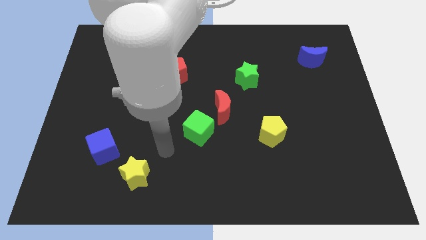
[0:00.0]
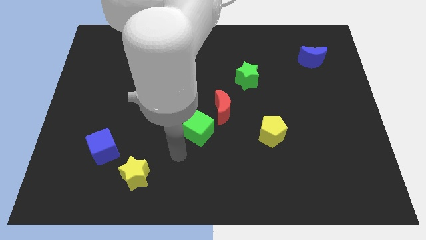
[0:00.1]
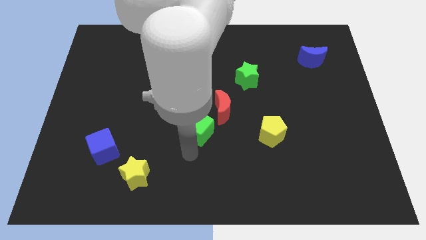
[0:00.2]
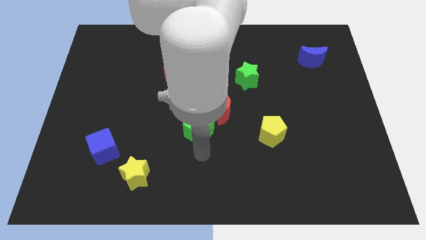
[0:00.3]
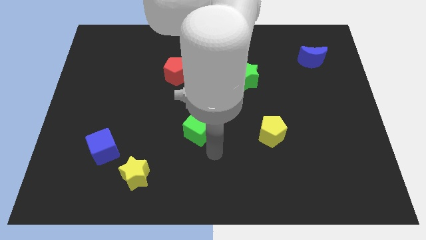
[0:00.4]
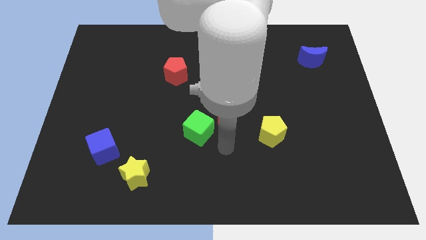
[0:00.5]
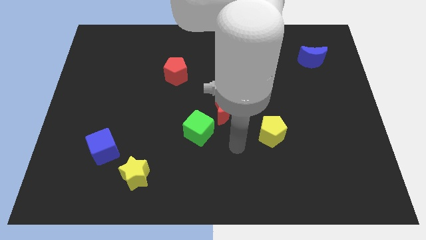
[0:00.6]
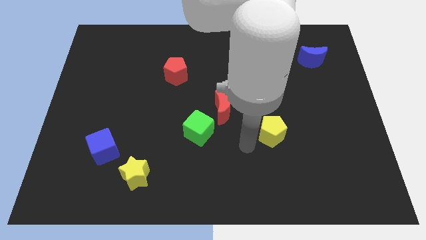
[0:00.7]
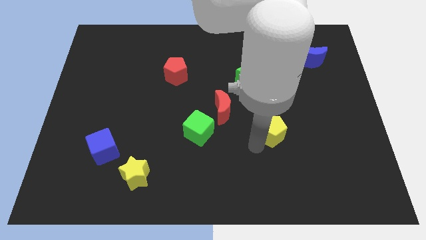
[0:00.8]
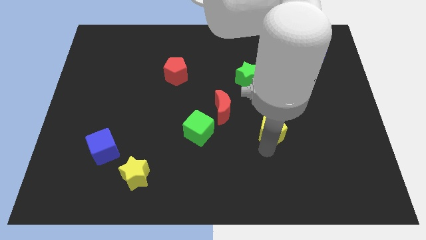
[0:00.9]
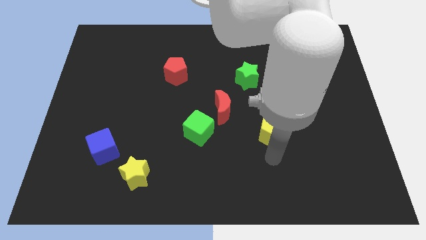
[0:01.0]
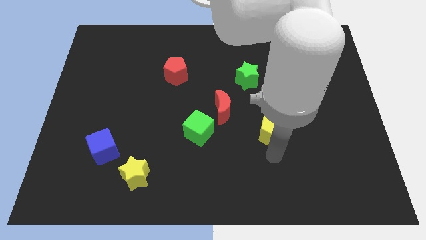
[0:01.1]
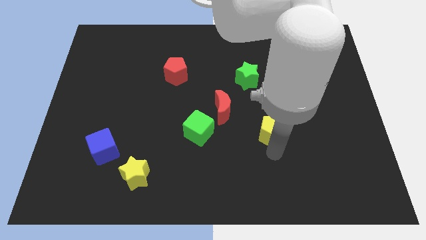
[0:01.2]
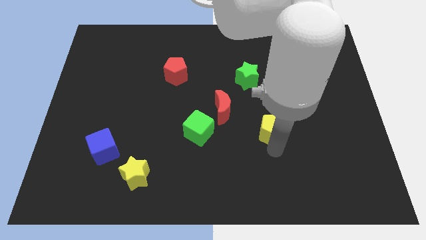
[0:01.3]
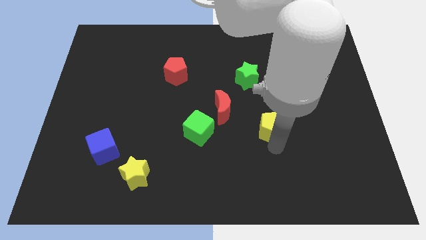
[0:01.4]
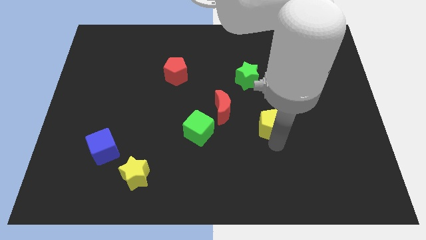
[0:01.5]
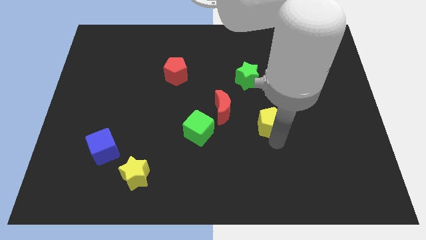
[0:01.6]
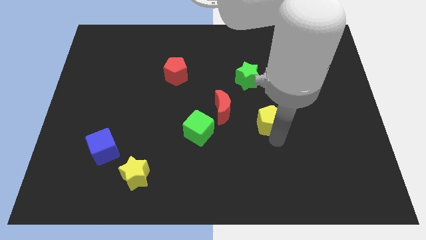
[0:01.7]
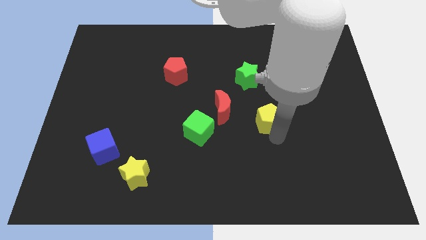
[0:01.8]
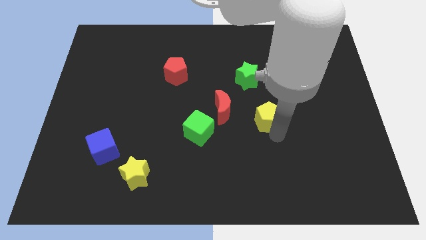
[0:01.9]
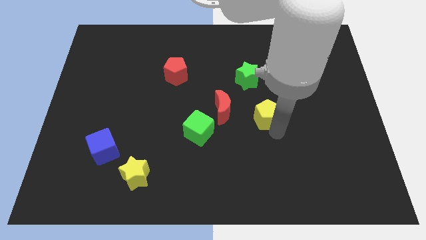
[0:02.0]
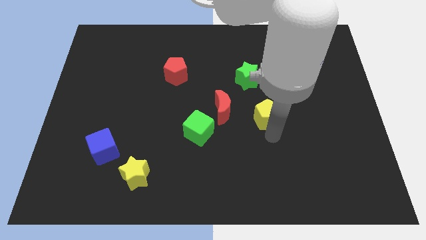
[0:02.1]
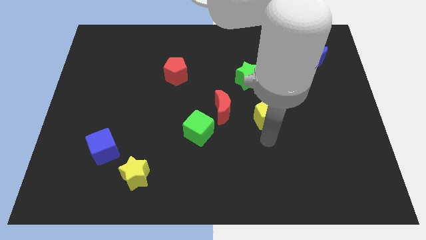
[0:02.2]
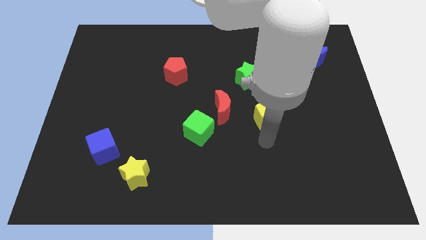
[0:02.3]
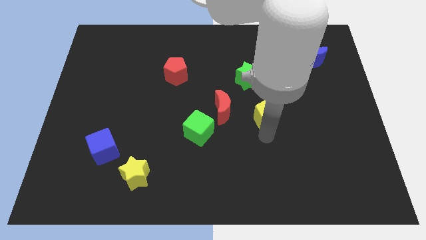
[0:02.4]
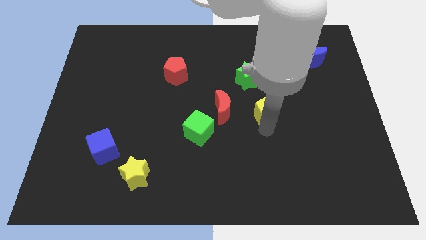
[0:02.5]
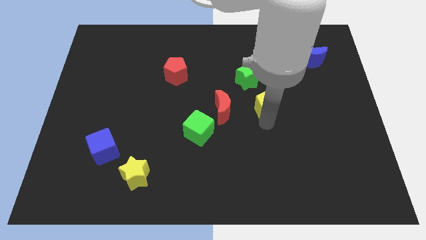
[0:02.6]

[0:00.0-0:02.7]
slightly slide the yellow pentagon upwards

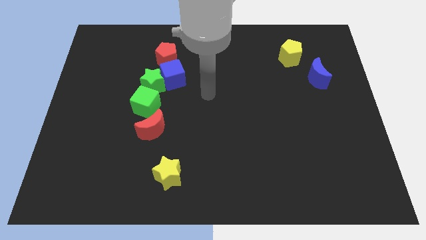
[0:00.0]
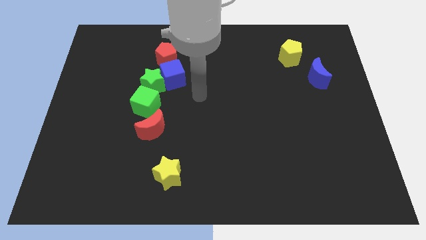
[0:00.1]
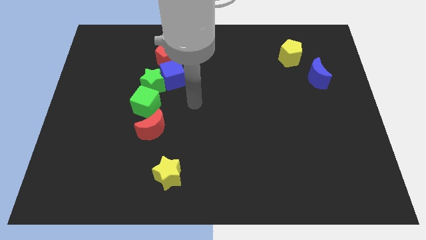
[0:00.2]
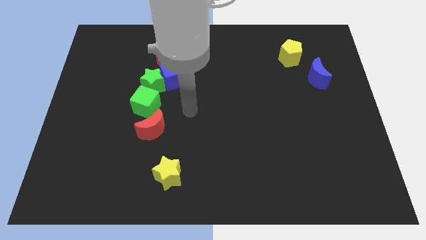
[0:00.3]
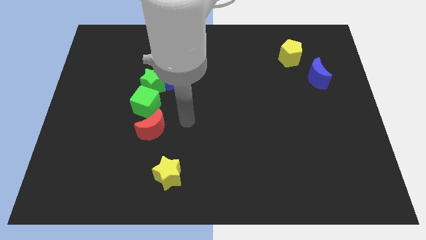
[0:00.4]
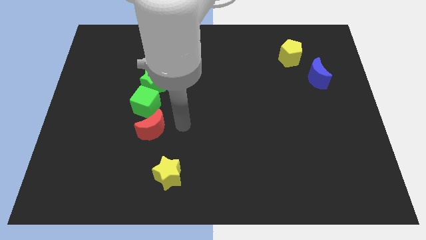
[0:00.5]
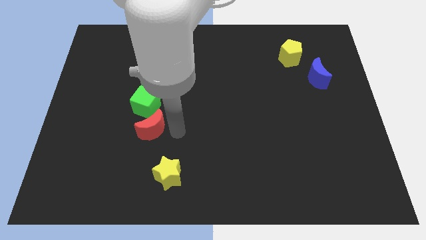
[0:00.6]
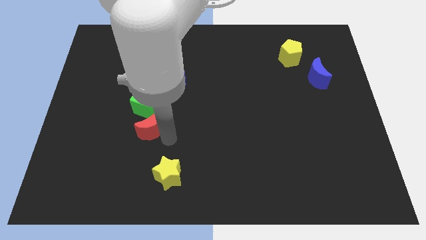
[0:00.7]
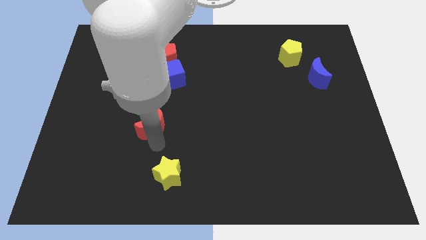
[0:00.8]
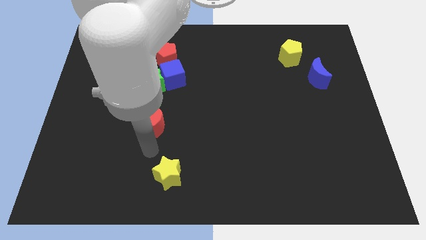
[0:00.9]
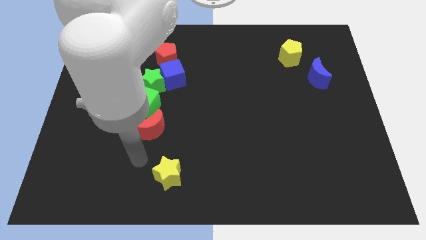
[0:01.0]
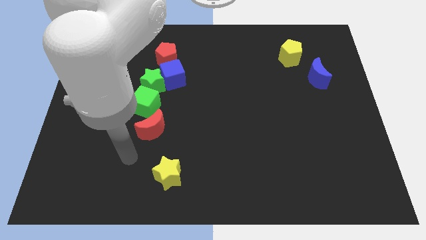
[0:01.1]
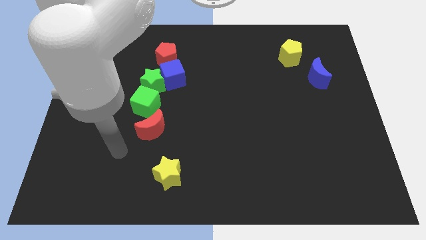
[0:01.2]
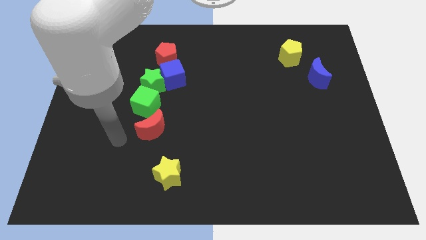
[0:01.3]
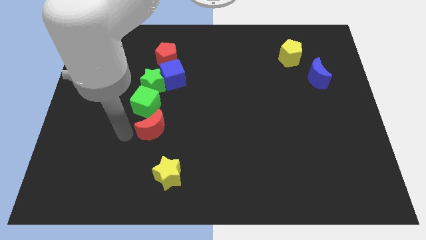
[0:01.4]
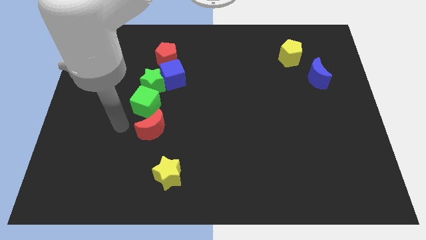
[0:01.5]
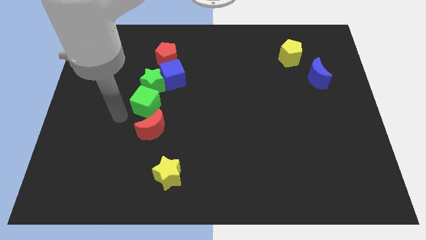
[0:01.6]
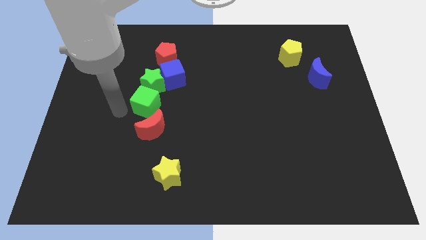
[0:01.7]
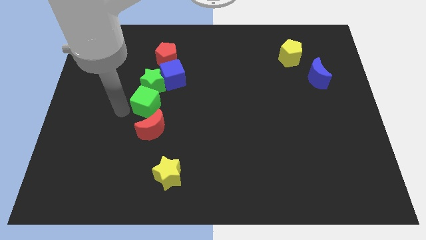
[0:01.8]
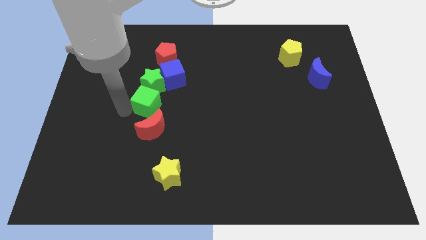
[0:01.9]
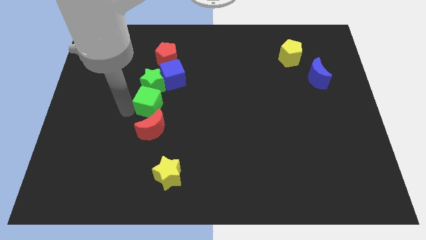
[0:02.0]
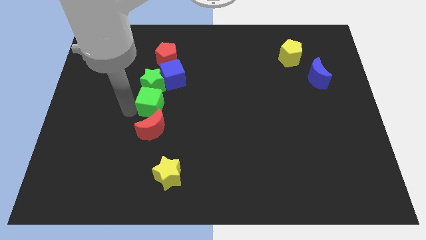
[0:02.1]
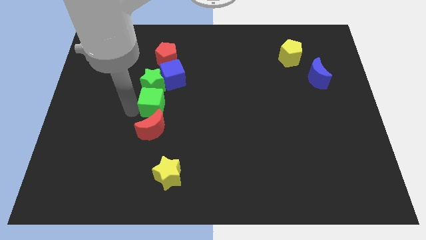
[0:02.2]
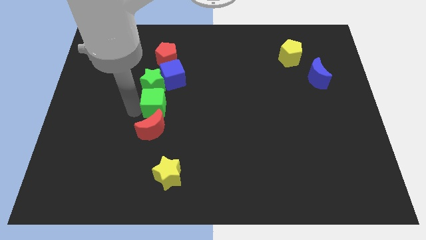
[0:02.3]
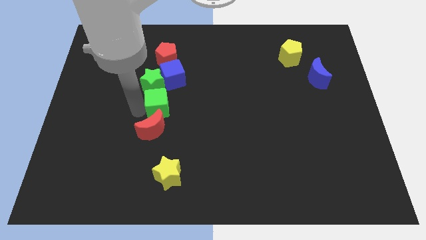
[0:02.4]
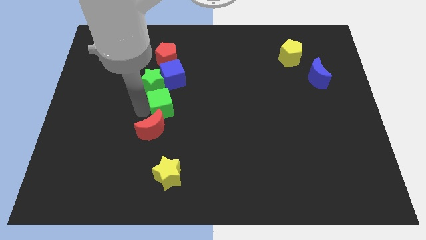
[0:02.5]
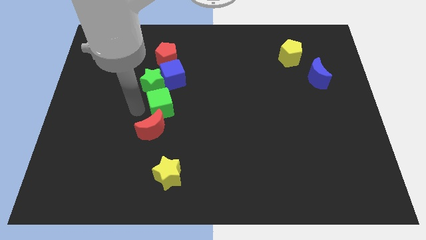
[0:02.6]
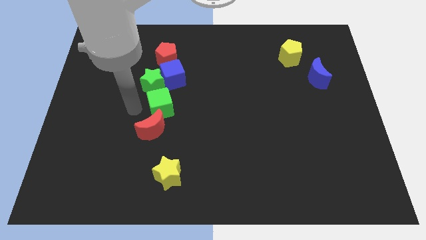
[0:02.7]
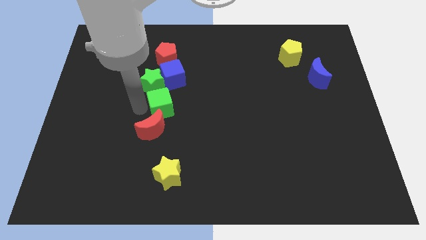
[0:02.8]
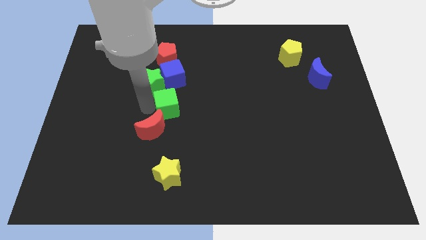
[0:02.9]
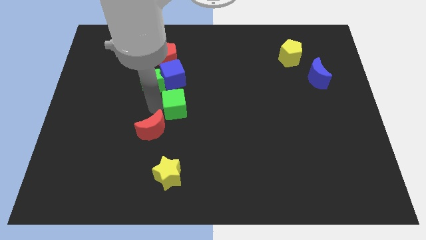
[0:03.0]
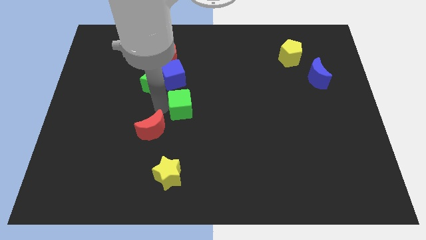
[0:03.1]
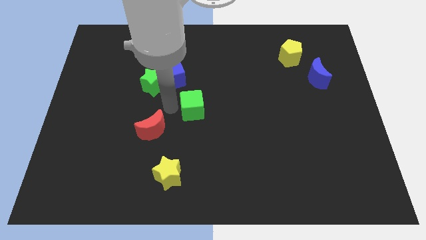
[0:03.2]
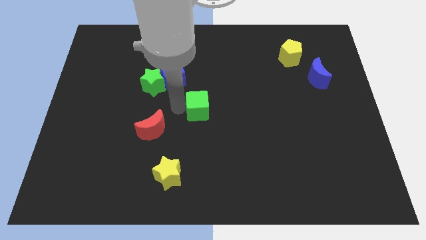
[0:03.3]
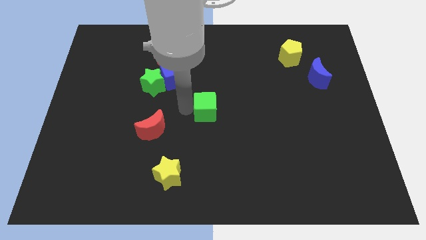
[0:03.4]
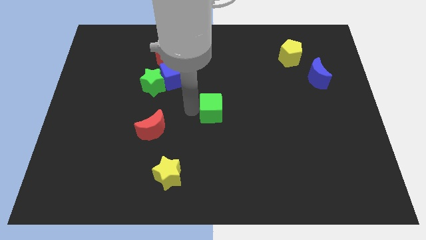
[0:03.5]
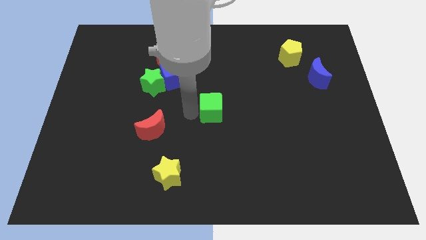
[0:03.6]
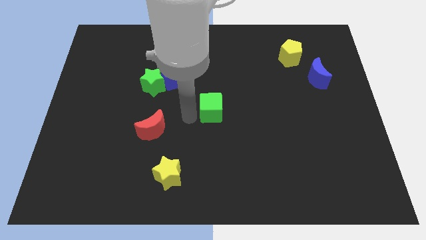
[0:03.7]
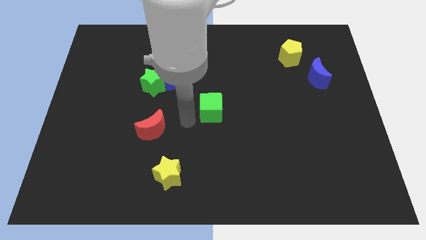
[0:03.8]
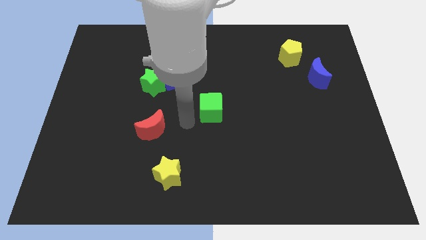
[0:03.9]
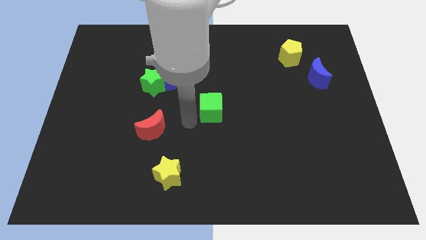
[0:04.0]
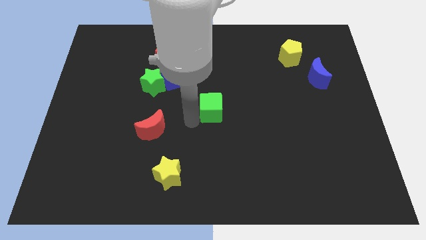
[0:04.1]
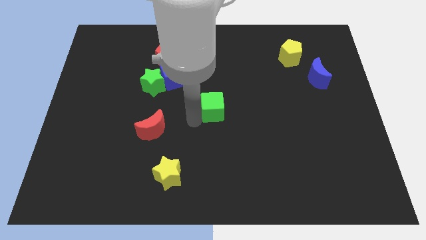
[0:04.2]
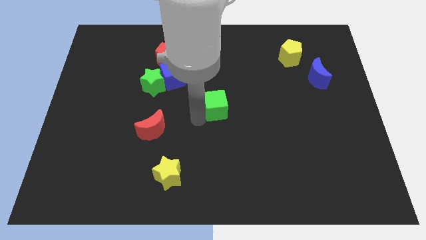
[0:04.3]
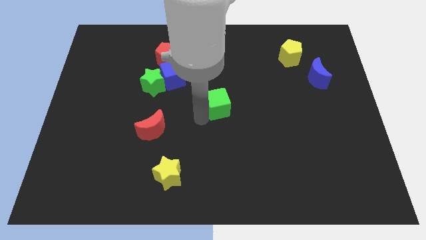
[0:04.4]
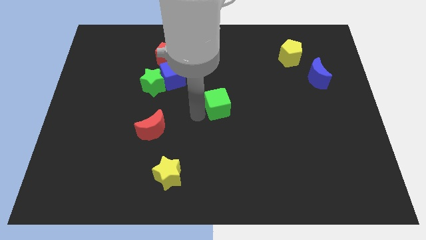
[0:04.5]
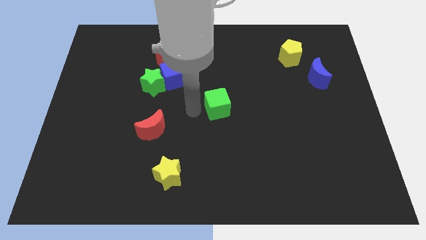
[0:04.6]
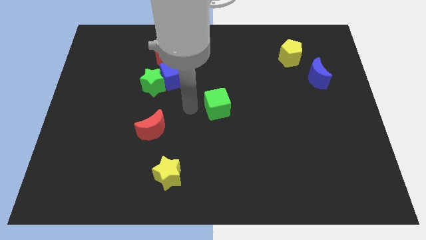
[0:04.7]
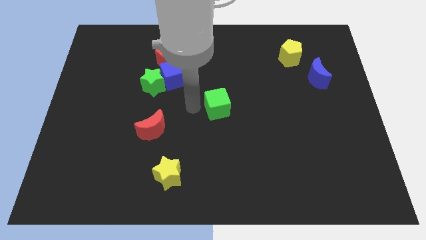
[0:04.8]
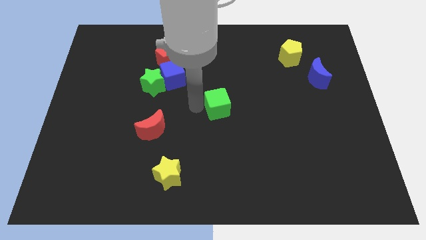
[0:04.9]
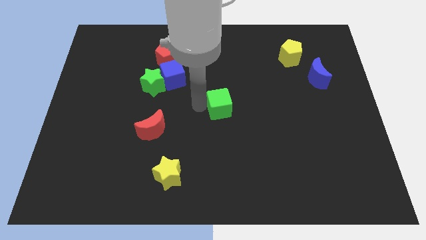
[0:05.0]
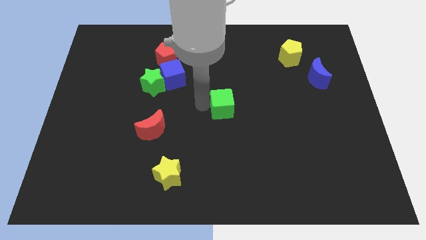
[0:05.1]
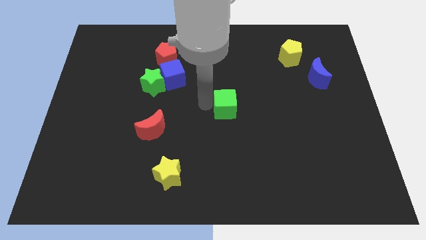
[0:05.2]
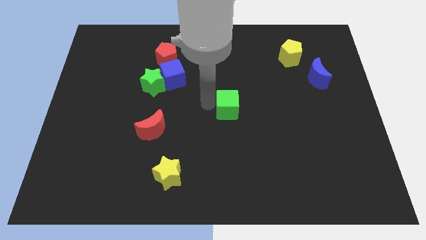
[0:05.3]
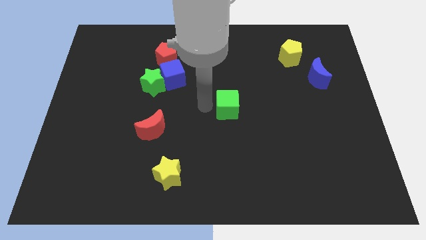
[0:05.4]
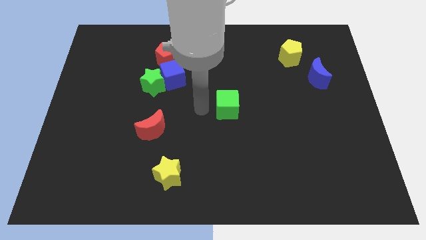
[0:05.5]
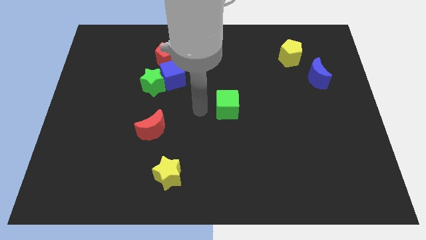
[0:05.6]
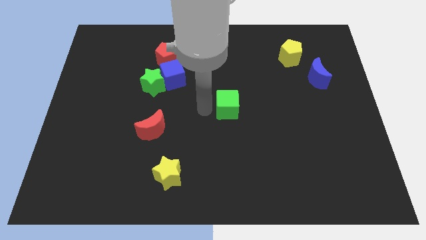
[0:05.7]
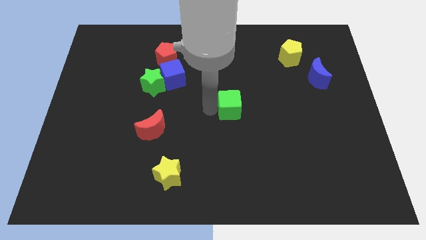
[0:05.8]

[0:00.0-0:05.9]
move the green cube right
